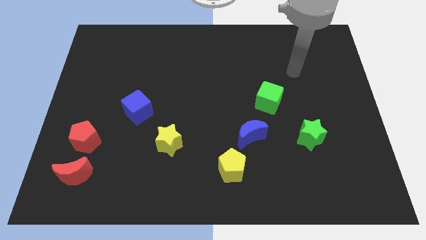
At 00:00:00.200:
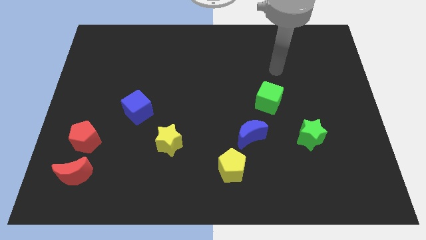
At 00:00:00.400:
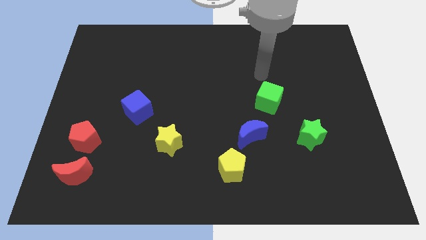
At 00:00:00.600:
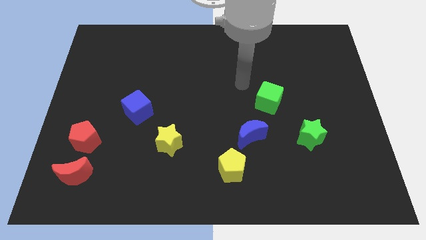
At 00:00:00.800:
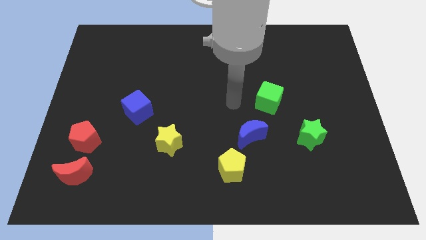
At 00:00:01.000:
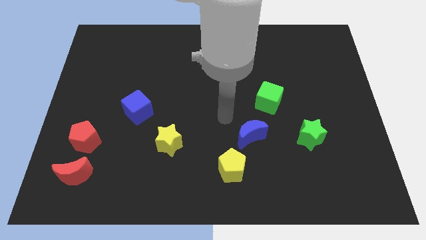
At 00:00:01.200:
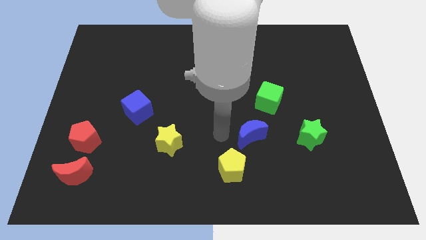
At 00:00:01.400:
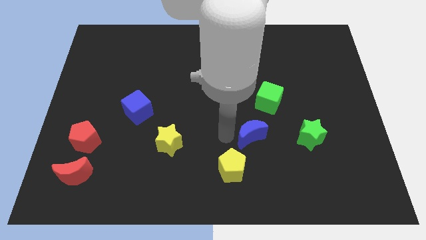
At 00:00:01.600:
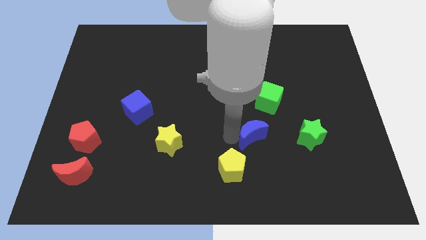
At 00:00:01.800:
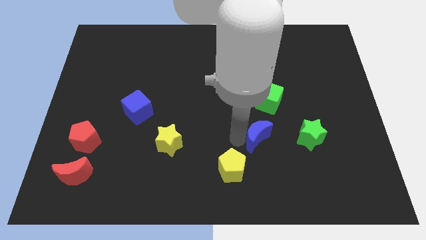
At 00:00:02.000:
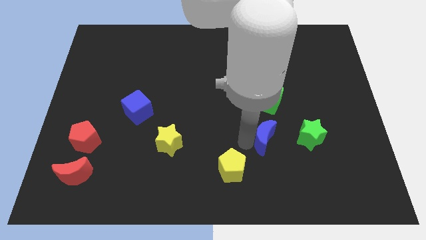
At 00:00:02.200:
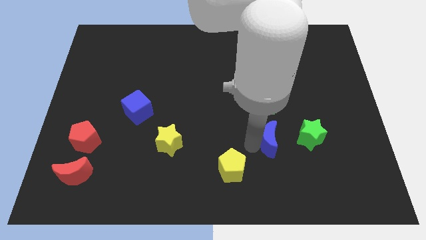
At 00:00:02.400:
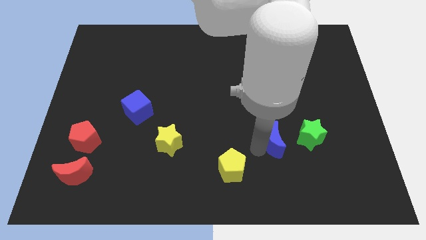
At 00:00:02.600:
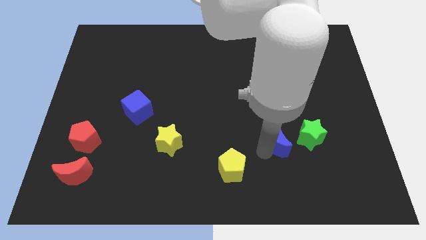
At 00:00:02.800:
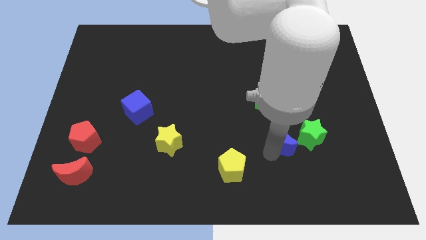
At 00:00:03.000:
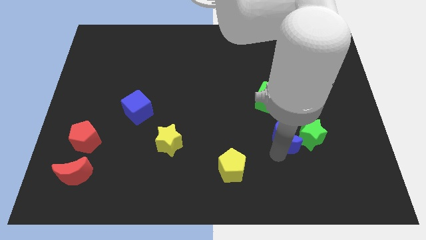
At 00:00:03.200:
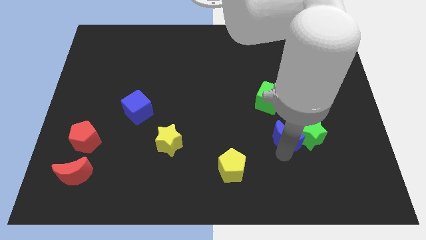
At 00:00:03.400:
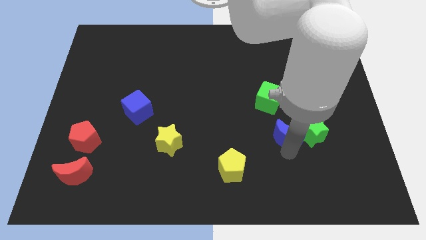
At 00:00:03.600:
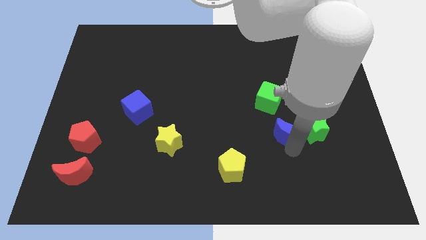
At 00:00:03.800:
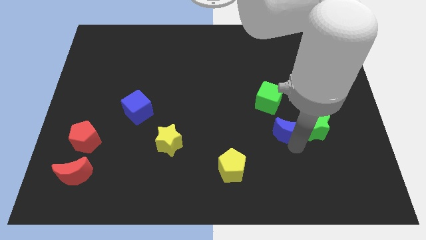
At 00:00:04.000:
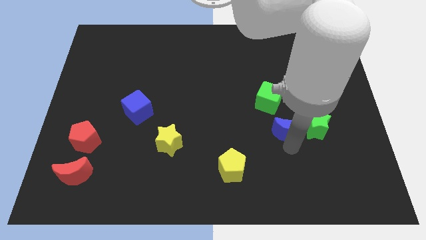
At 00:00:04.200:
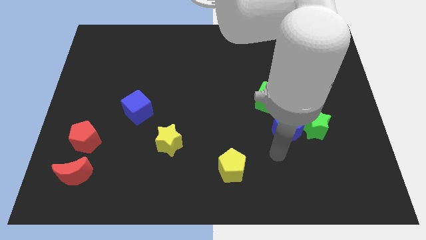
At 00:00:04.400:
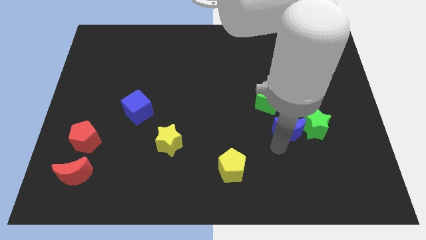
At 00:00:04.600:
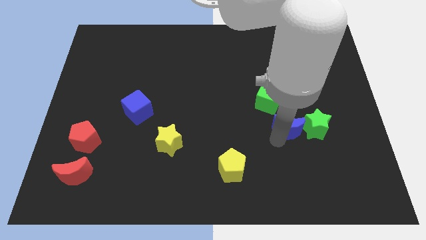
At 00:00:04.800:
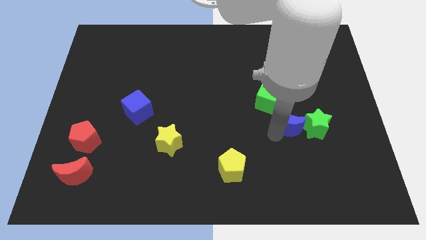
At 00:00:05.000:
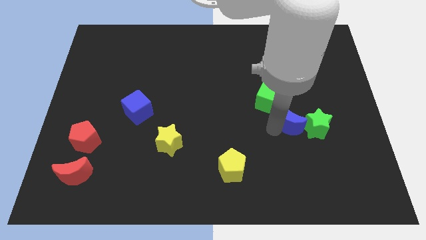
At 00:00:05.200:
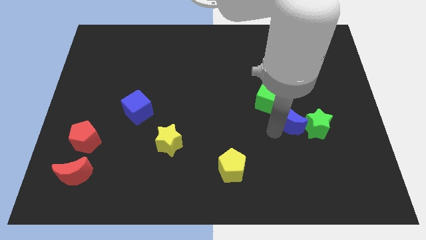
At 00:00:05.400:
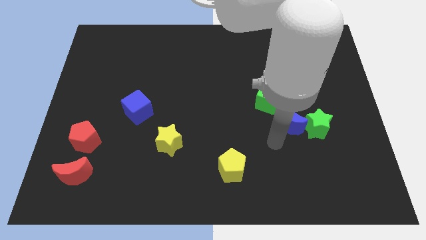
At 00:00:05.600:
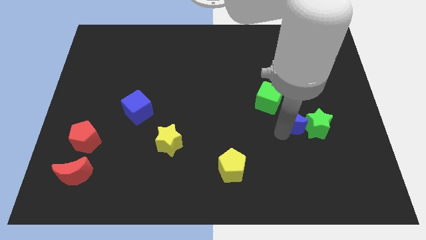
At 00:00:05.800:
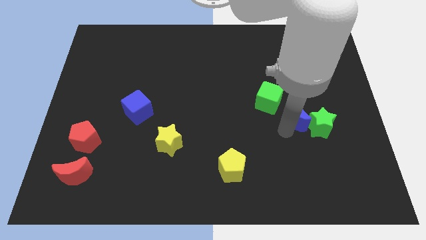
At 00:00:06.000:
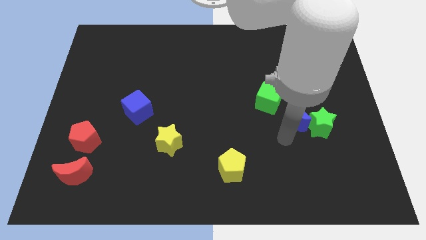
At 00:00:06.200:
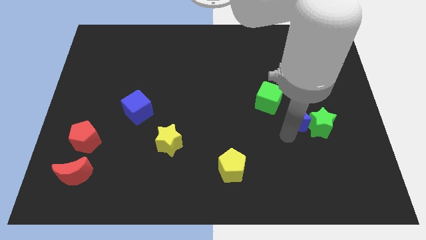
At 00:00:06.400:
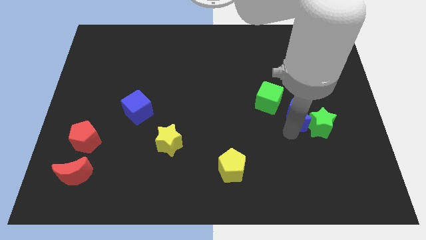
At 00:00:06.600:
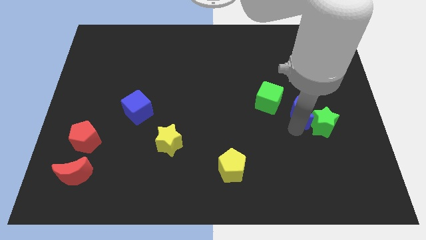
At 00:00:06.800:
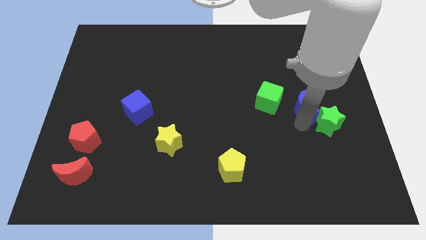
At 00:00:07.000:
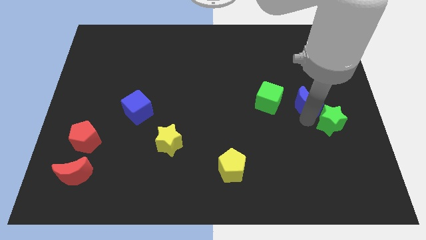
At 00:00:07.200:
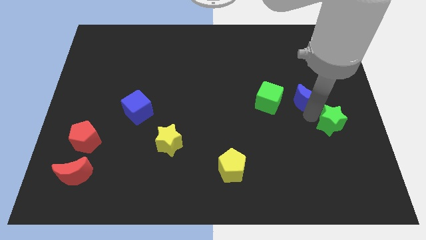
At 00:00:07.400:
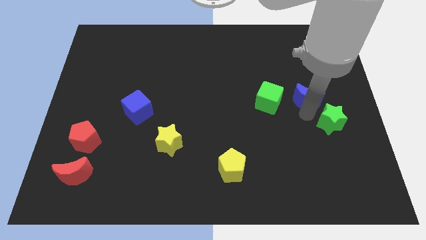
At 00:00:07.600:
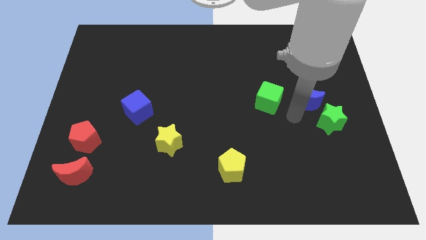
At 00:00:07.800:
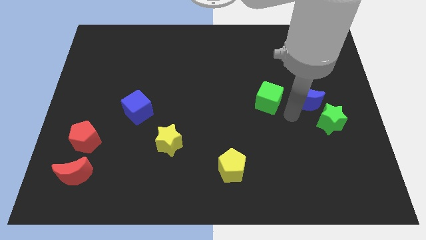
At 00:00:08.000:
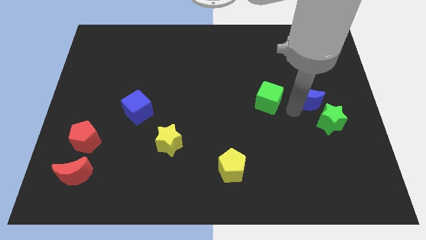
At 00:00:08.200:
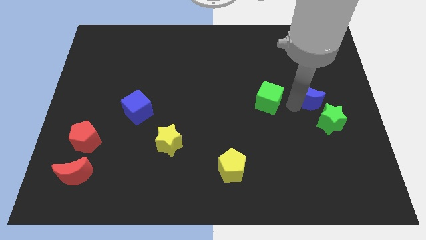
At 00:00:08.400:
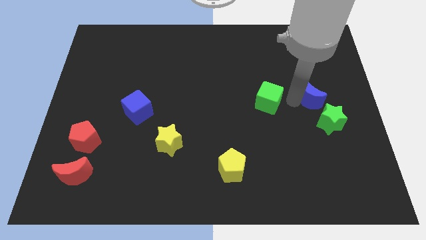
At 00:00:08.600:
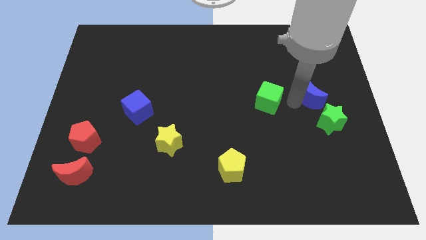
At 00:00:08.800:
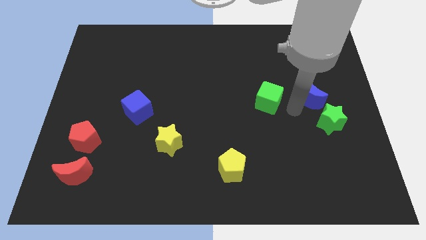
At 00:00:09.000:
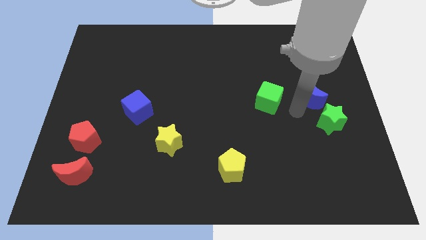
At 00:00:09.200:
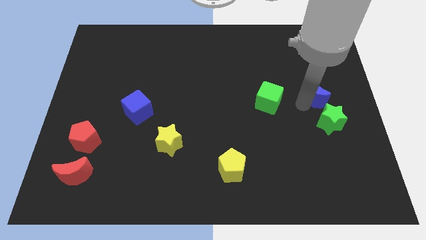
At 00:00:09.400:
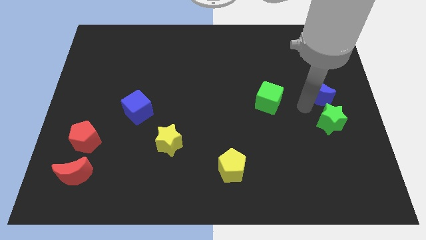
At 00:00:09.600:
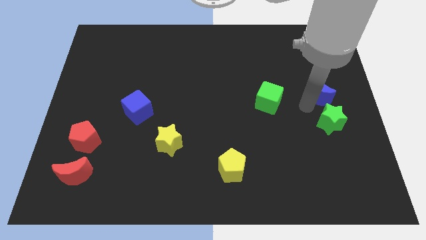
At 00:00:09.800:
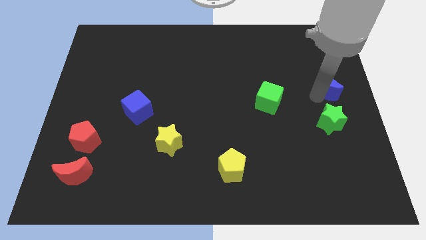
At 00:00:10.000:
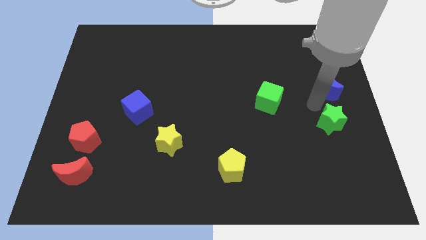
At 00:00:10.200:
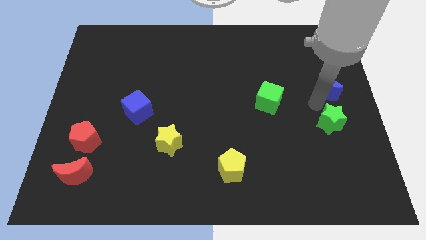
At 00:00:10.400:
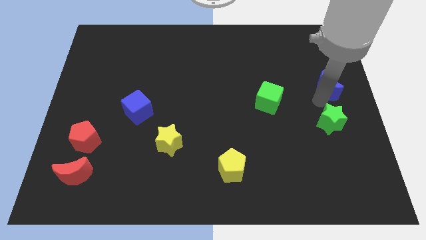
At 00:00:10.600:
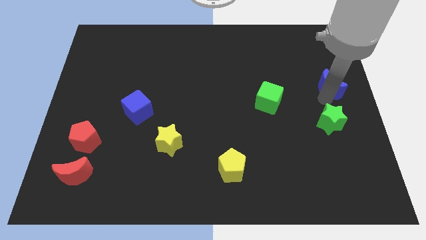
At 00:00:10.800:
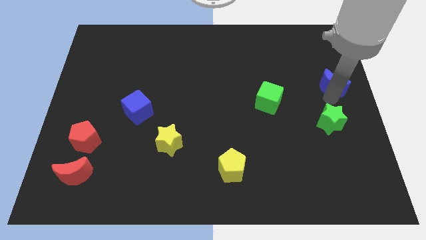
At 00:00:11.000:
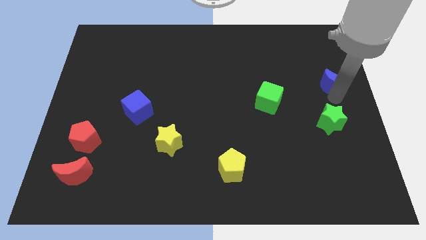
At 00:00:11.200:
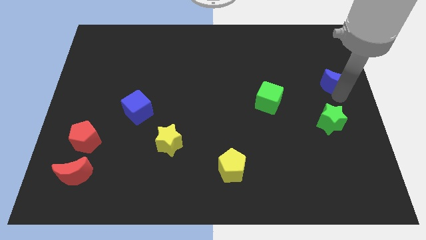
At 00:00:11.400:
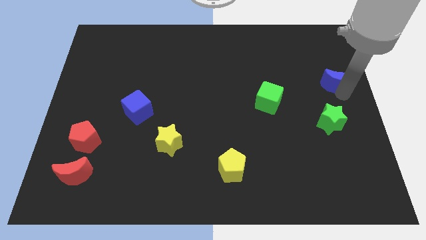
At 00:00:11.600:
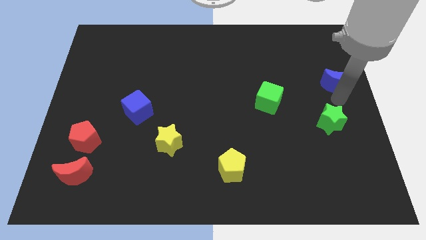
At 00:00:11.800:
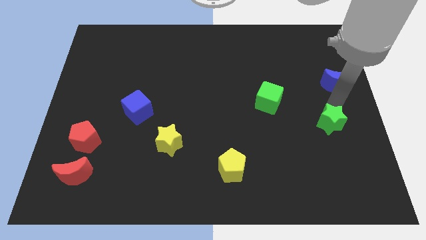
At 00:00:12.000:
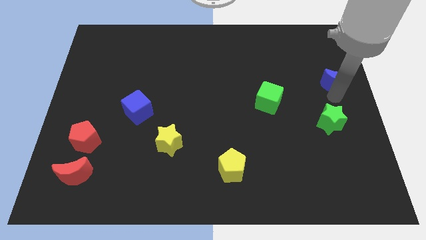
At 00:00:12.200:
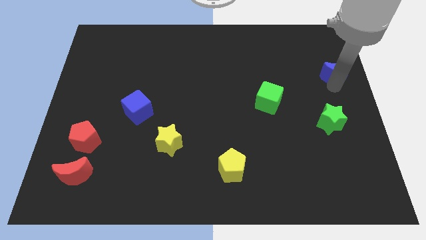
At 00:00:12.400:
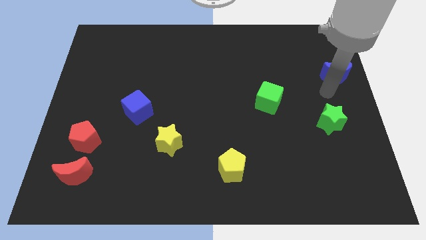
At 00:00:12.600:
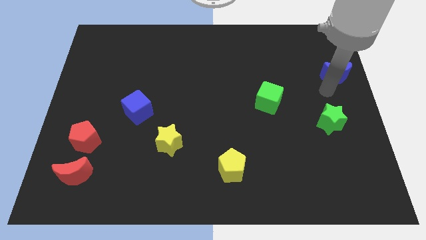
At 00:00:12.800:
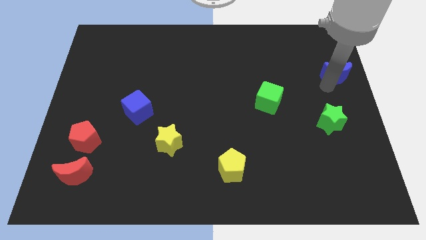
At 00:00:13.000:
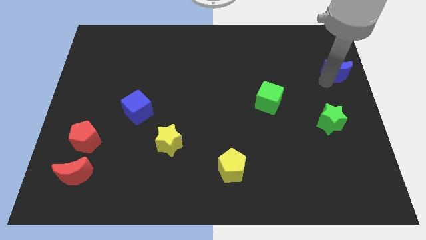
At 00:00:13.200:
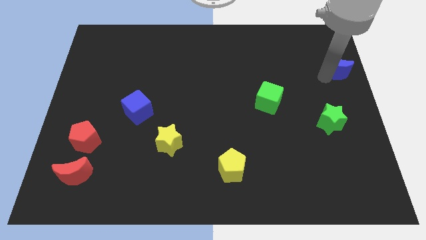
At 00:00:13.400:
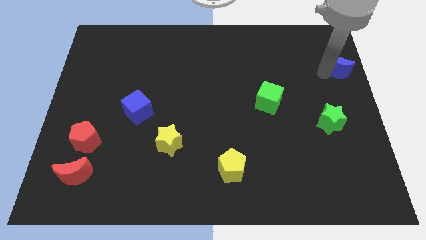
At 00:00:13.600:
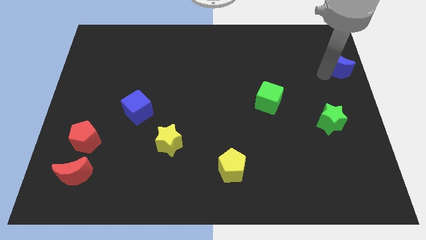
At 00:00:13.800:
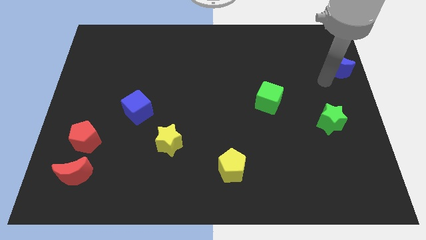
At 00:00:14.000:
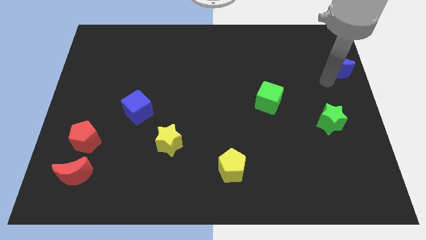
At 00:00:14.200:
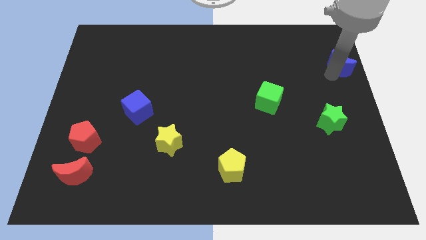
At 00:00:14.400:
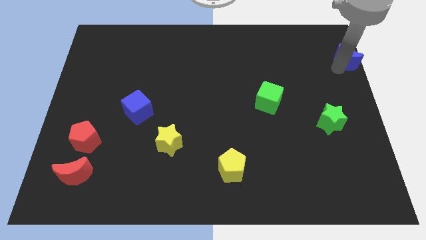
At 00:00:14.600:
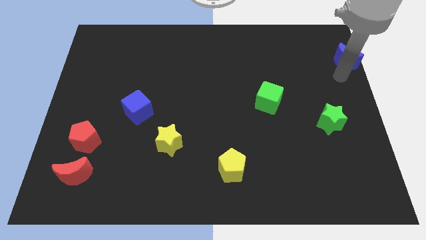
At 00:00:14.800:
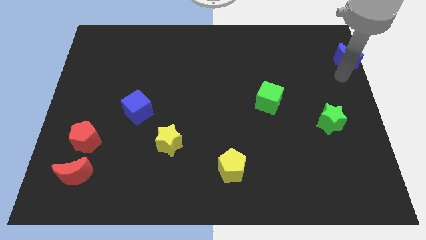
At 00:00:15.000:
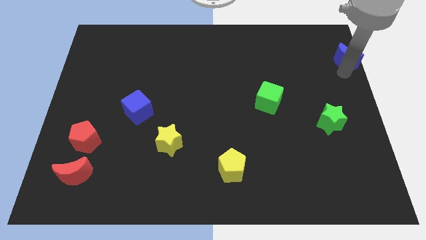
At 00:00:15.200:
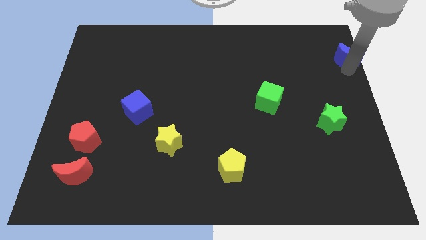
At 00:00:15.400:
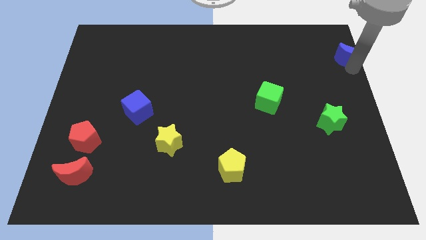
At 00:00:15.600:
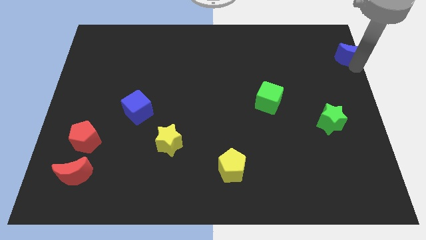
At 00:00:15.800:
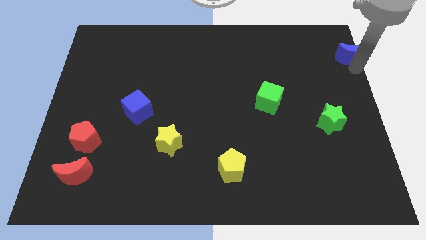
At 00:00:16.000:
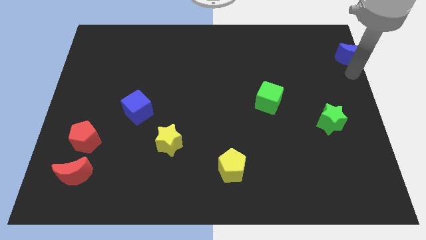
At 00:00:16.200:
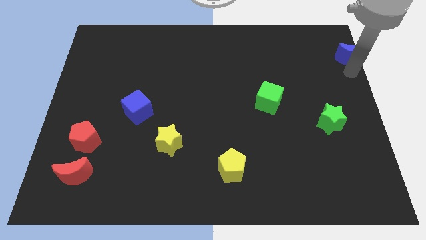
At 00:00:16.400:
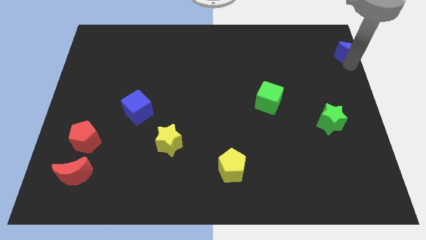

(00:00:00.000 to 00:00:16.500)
put the blue moon to the top right
